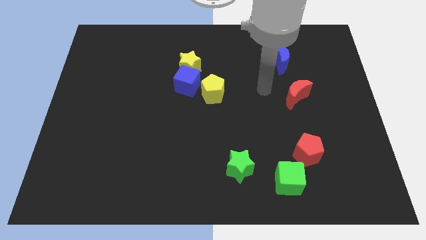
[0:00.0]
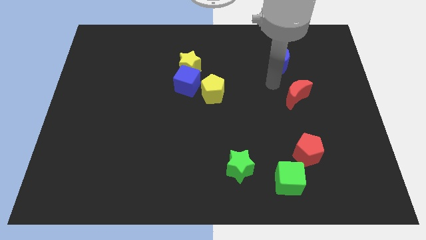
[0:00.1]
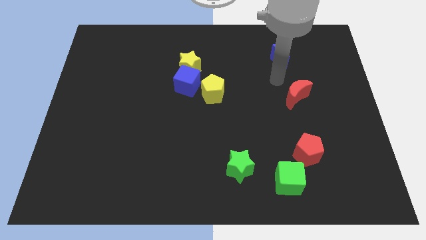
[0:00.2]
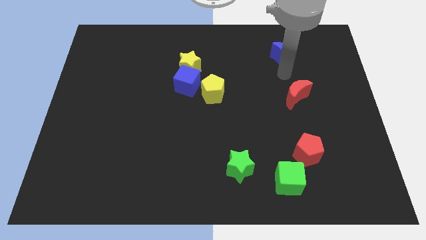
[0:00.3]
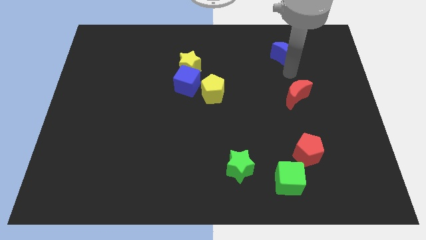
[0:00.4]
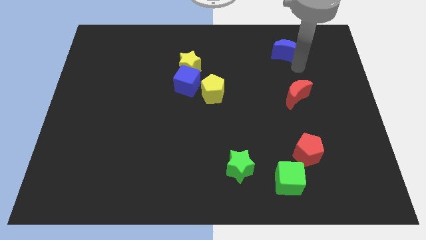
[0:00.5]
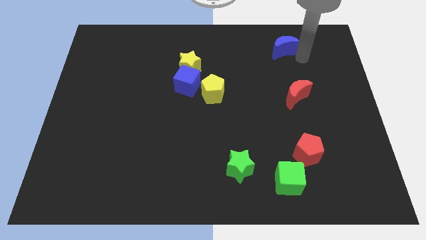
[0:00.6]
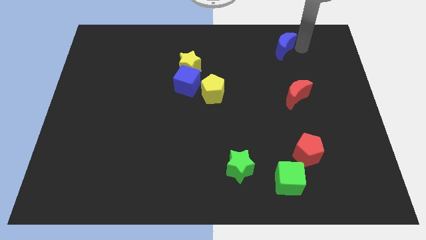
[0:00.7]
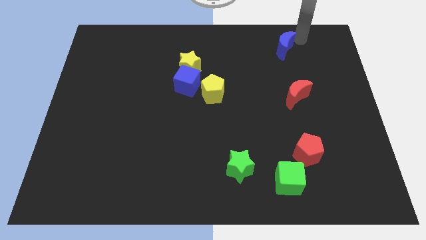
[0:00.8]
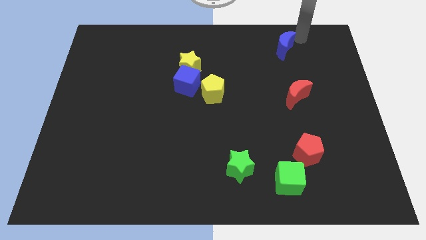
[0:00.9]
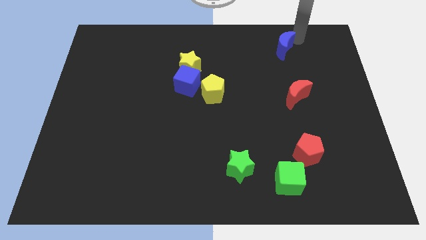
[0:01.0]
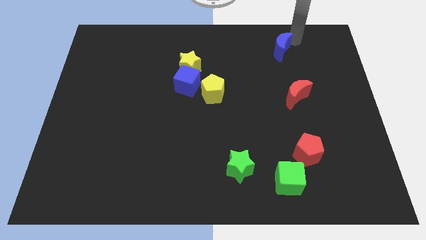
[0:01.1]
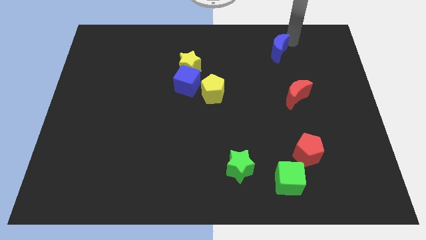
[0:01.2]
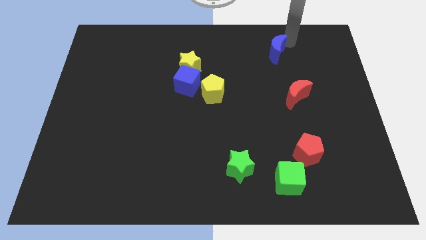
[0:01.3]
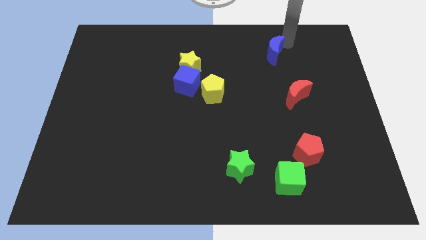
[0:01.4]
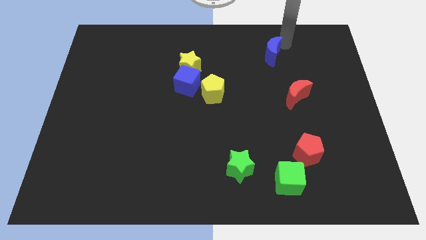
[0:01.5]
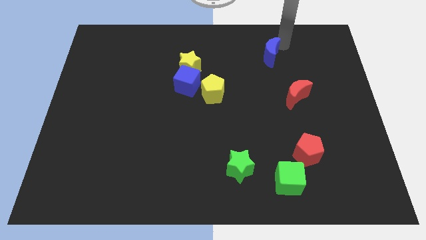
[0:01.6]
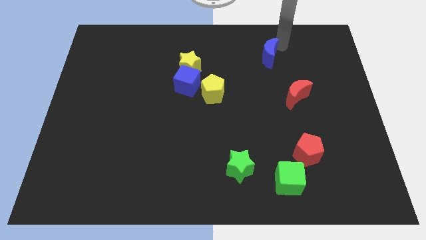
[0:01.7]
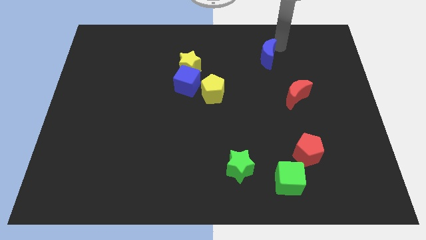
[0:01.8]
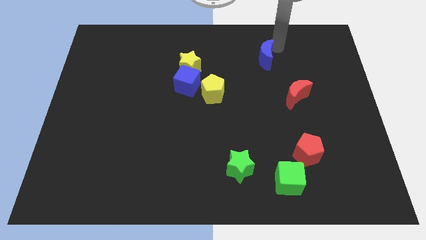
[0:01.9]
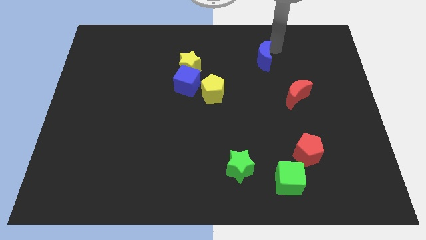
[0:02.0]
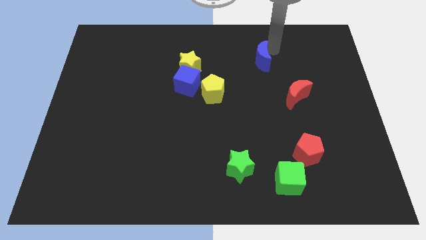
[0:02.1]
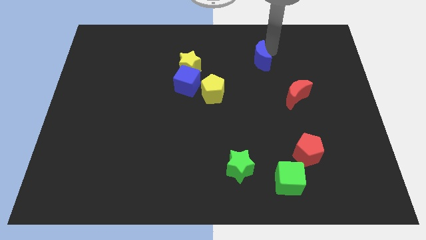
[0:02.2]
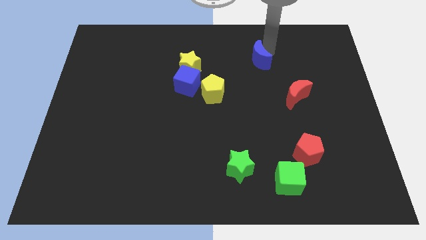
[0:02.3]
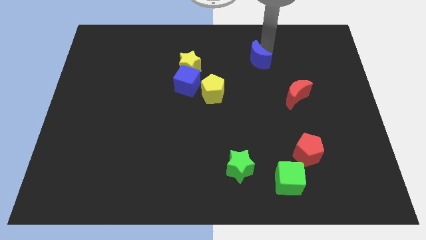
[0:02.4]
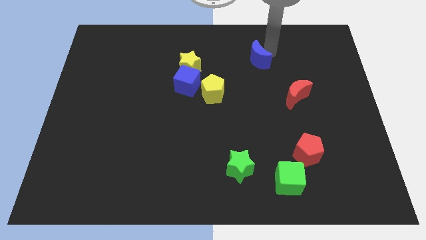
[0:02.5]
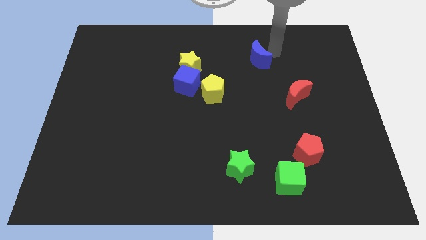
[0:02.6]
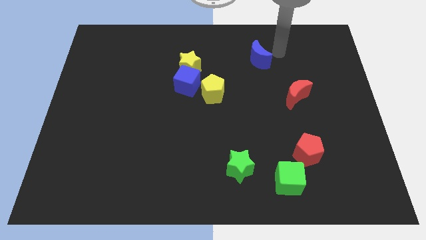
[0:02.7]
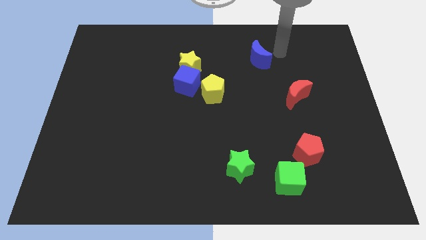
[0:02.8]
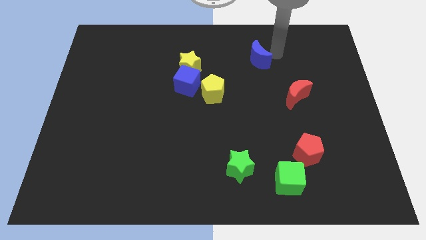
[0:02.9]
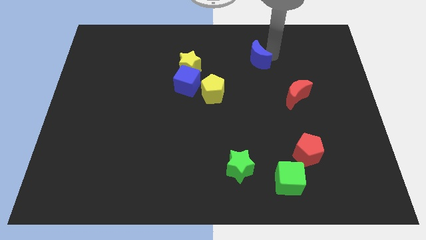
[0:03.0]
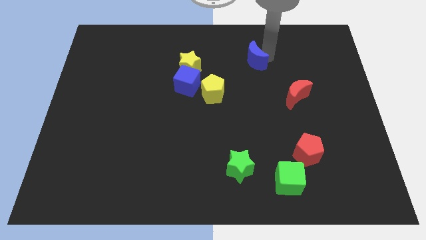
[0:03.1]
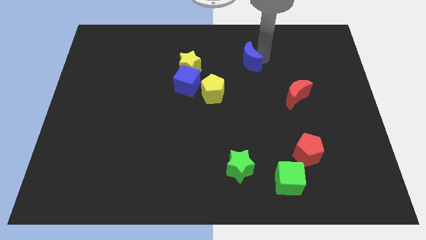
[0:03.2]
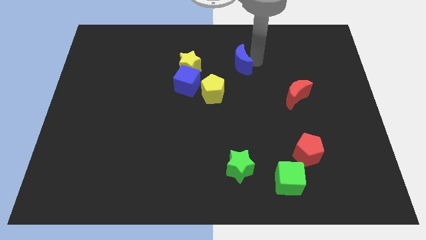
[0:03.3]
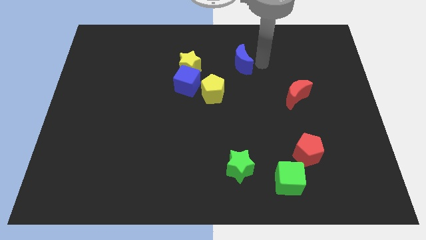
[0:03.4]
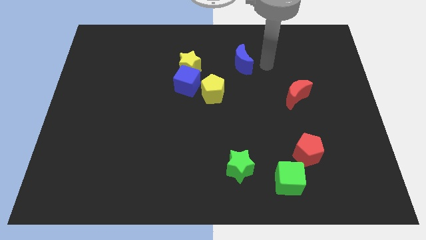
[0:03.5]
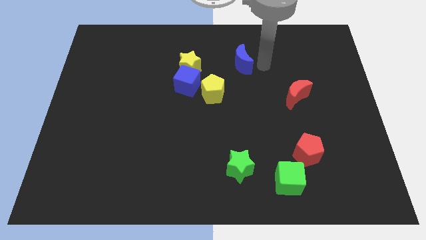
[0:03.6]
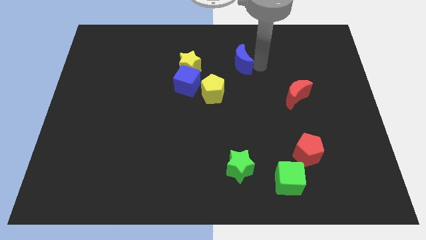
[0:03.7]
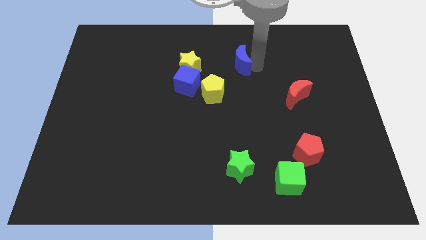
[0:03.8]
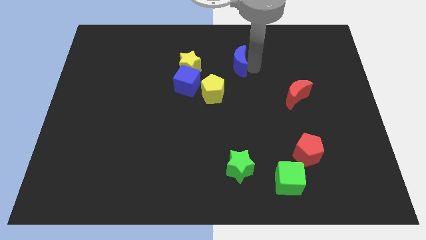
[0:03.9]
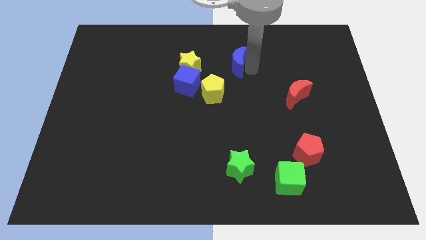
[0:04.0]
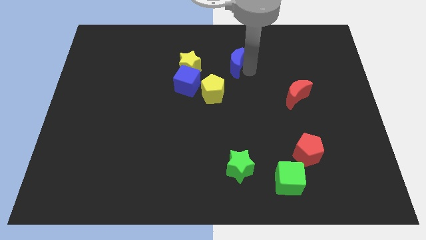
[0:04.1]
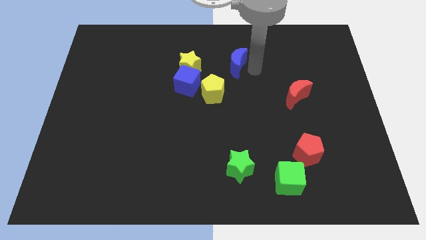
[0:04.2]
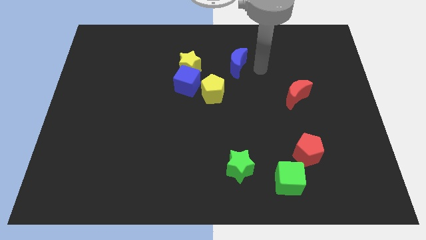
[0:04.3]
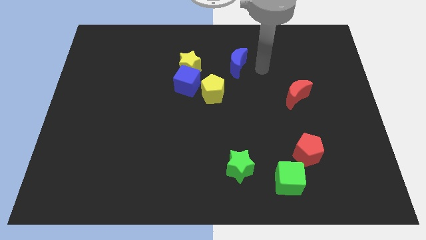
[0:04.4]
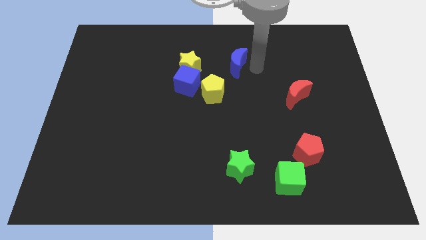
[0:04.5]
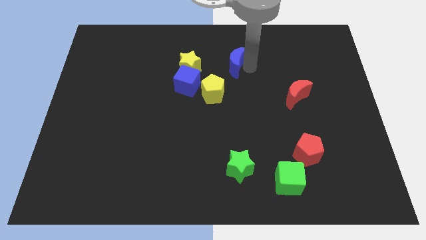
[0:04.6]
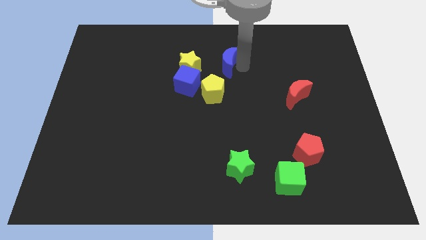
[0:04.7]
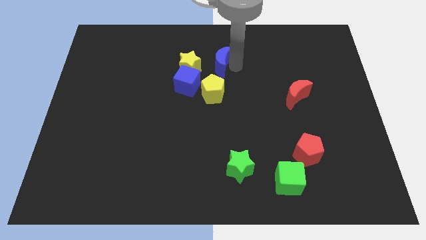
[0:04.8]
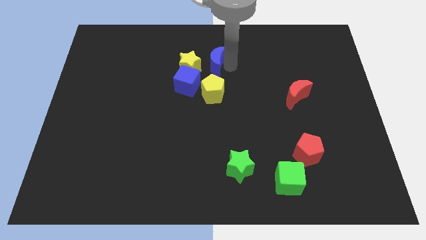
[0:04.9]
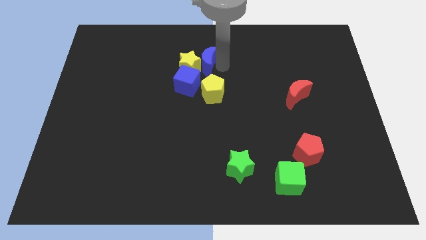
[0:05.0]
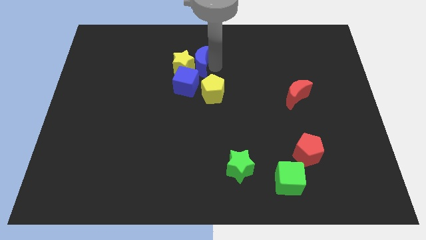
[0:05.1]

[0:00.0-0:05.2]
move the blue moon to the left

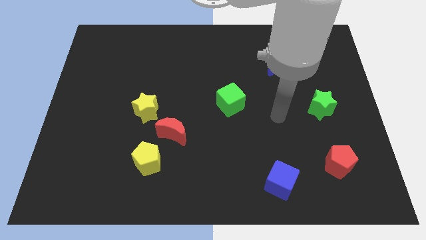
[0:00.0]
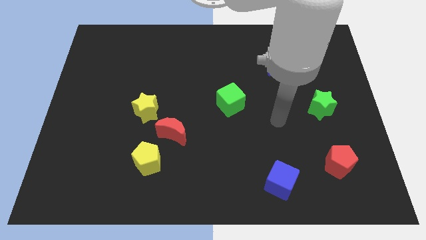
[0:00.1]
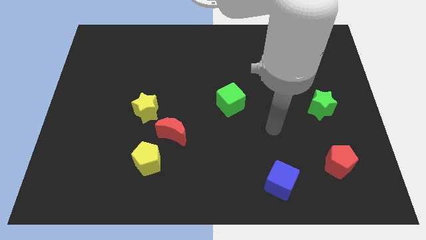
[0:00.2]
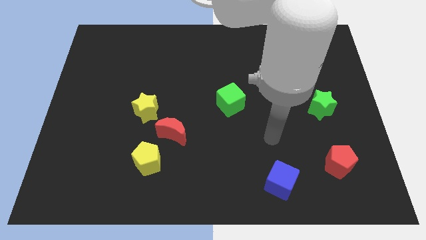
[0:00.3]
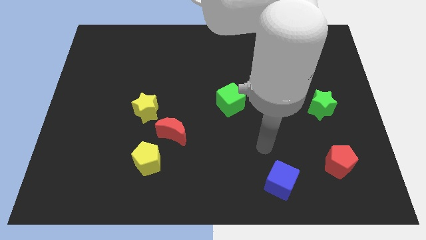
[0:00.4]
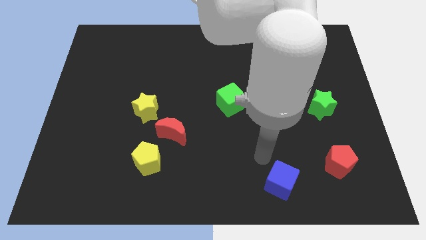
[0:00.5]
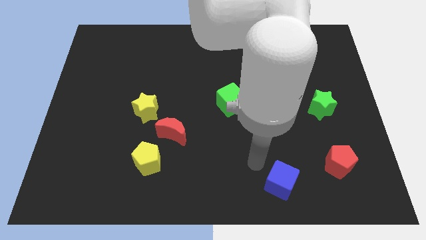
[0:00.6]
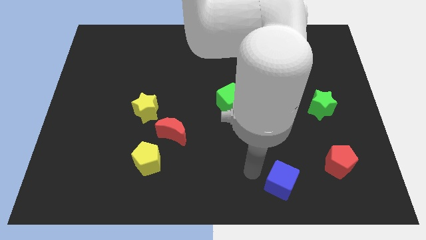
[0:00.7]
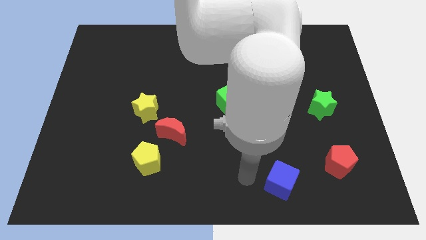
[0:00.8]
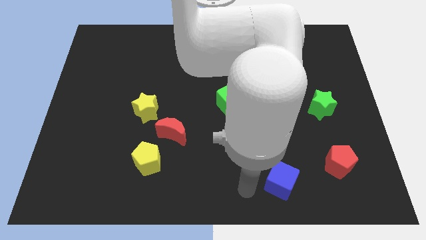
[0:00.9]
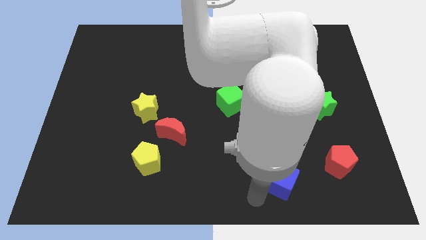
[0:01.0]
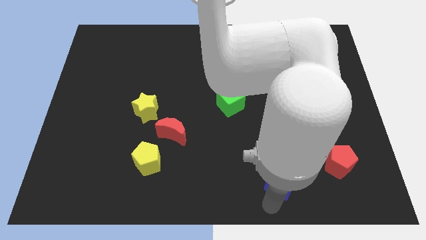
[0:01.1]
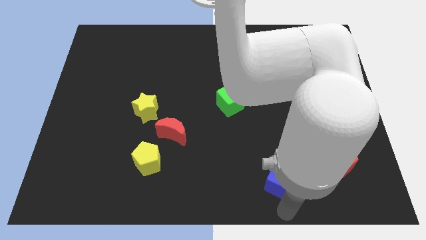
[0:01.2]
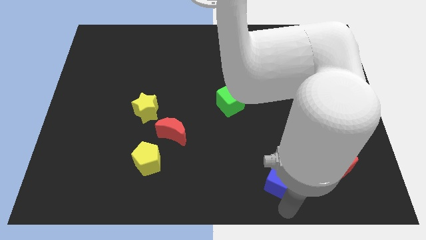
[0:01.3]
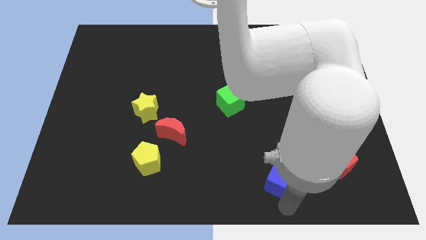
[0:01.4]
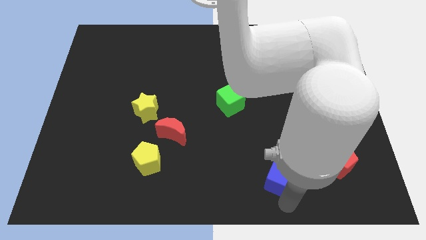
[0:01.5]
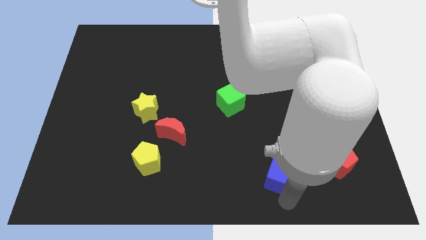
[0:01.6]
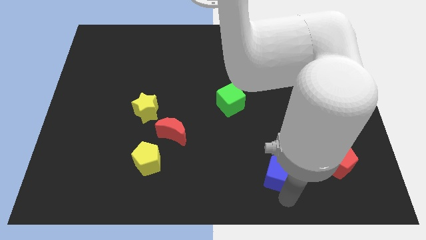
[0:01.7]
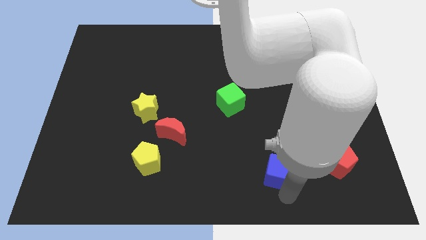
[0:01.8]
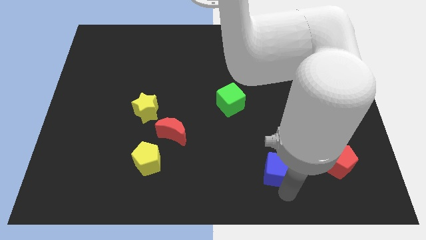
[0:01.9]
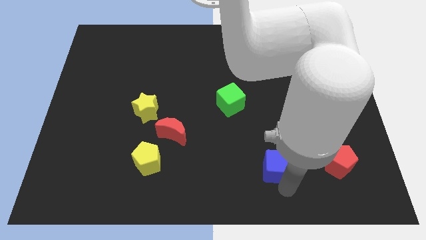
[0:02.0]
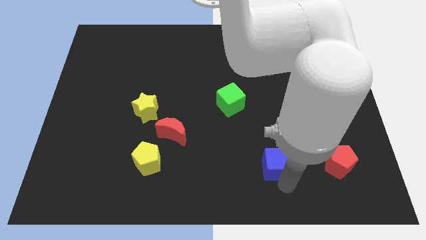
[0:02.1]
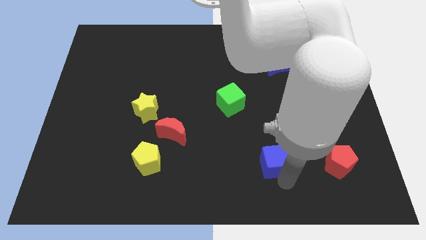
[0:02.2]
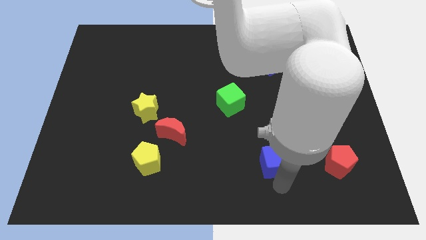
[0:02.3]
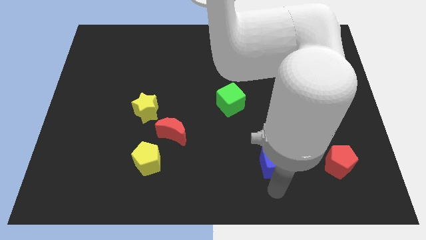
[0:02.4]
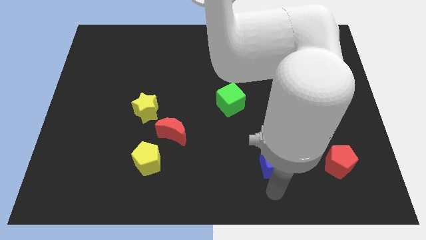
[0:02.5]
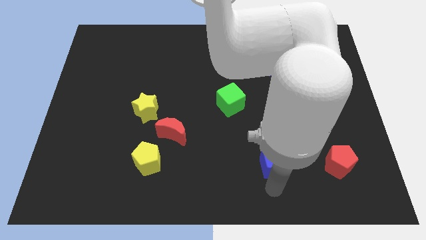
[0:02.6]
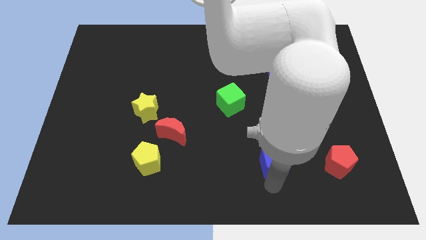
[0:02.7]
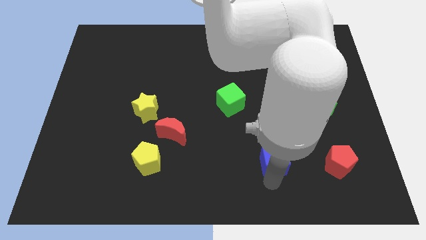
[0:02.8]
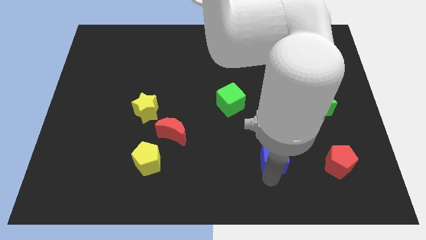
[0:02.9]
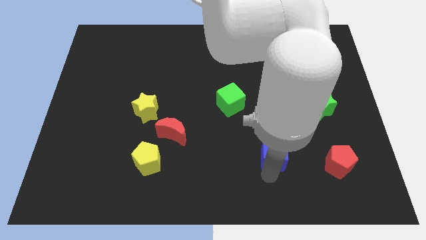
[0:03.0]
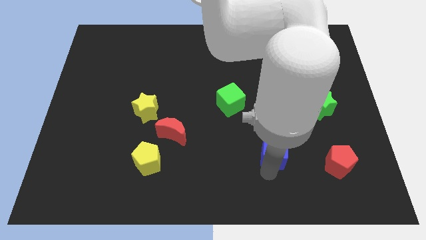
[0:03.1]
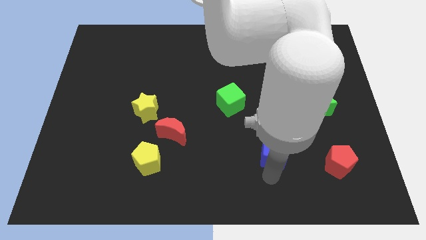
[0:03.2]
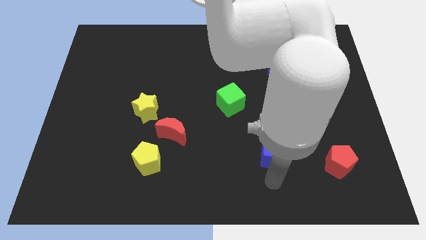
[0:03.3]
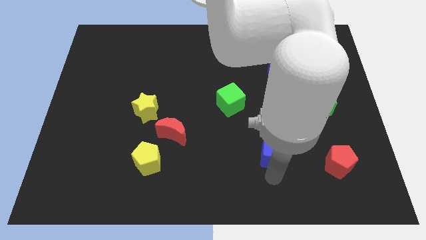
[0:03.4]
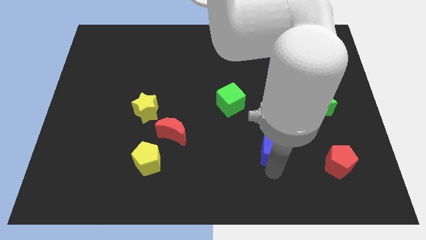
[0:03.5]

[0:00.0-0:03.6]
move the blue cube slightly upwards
